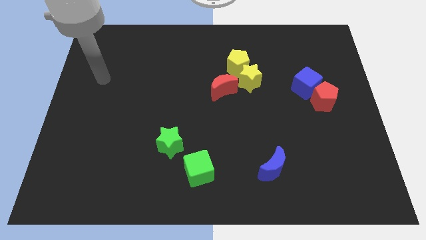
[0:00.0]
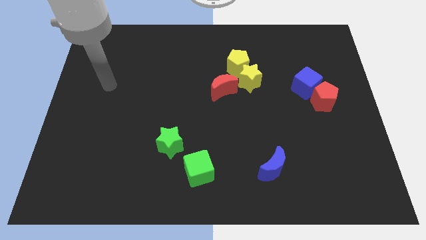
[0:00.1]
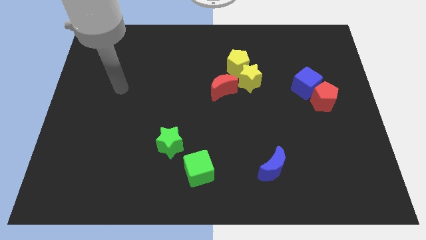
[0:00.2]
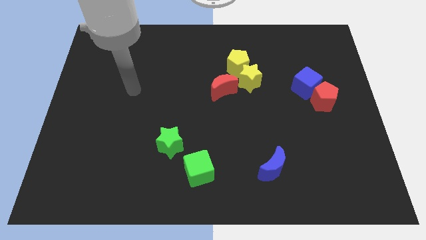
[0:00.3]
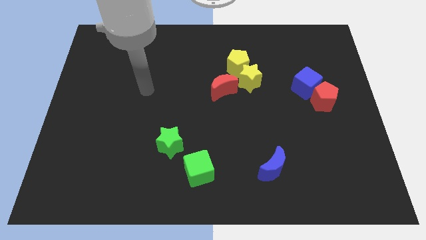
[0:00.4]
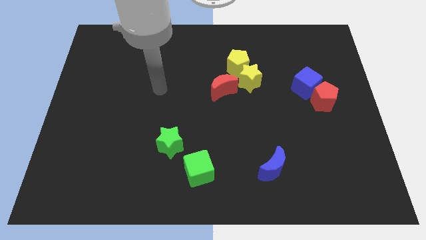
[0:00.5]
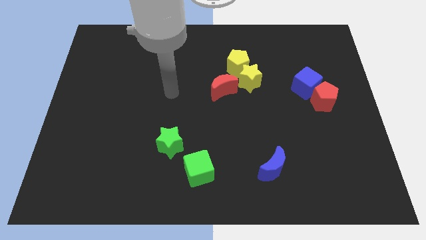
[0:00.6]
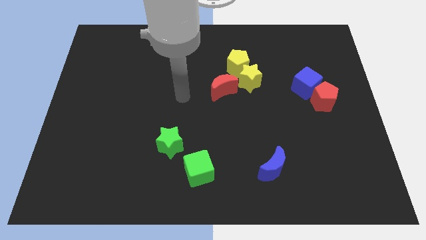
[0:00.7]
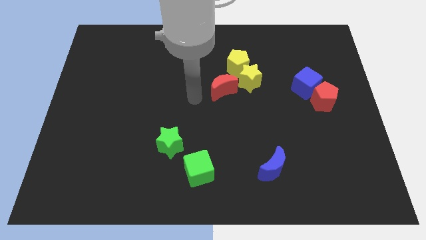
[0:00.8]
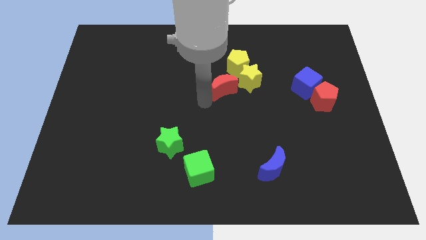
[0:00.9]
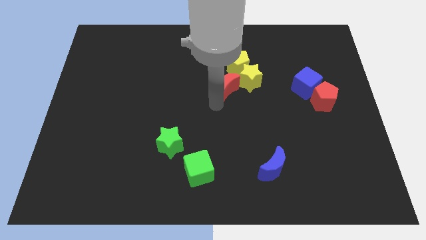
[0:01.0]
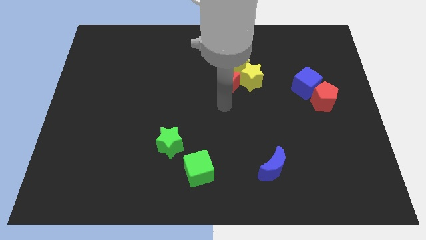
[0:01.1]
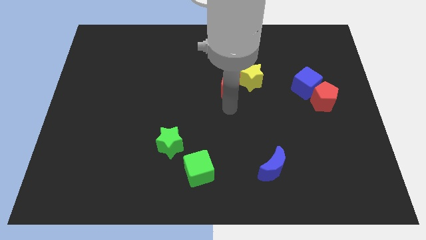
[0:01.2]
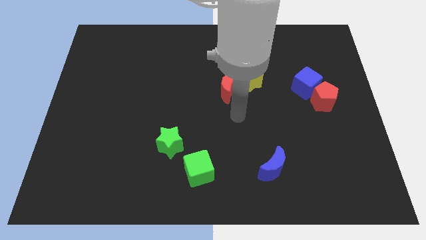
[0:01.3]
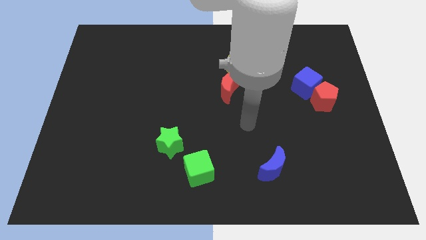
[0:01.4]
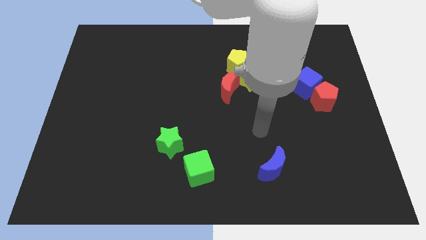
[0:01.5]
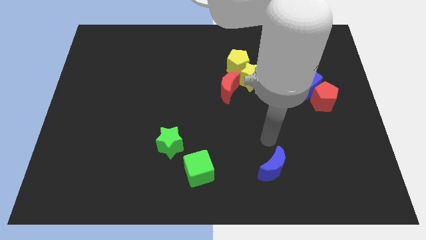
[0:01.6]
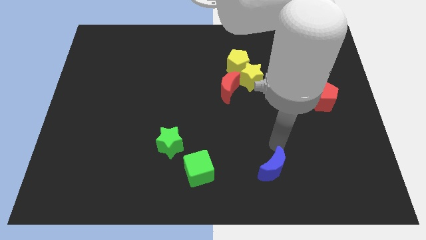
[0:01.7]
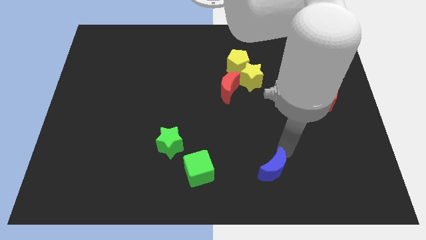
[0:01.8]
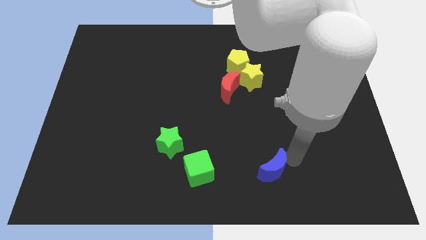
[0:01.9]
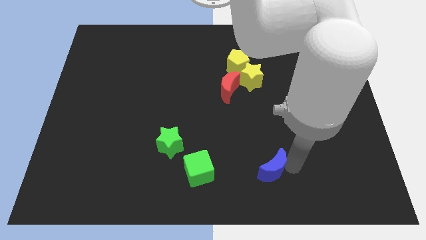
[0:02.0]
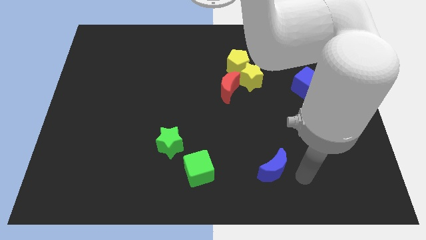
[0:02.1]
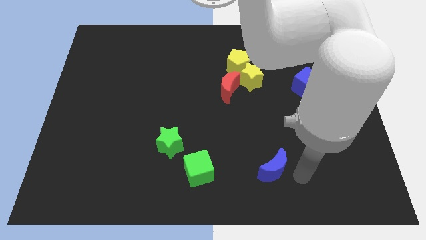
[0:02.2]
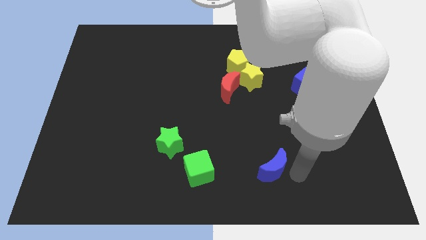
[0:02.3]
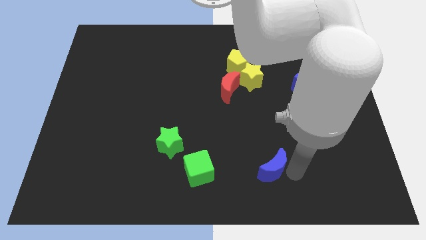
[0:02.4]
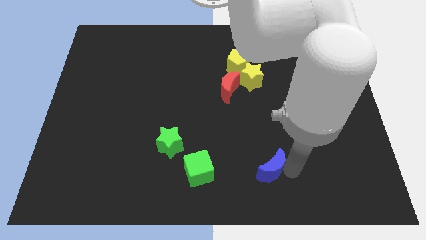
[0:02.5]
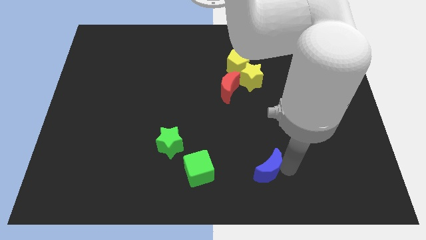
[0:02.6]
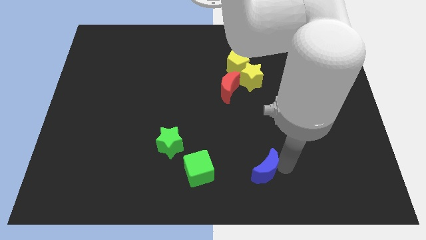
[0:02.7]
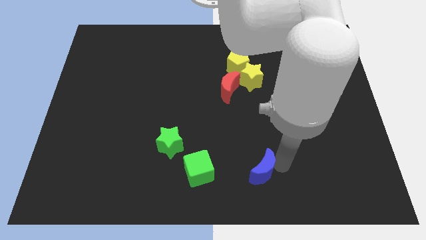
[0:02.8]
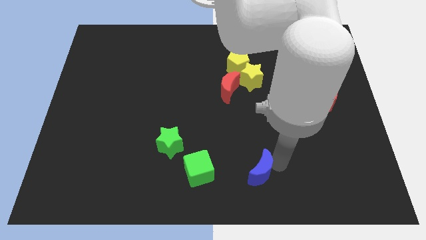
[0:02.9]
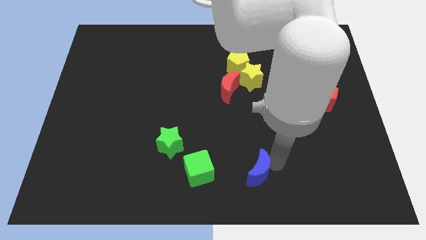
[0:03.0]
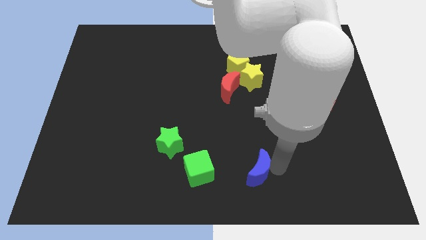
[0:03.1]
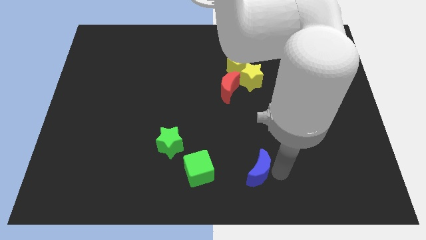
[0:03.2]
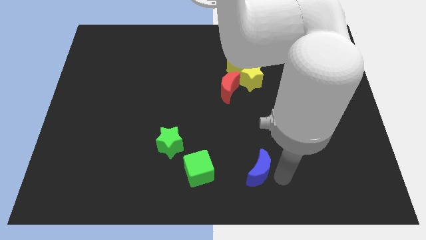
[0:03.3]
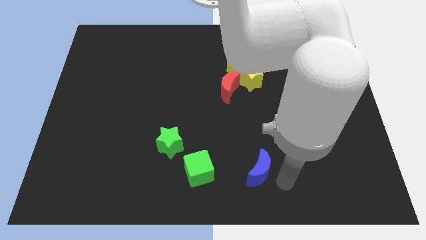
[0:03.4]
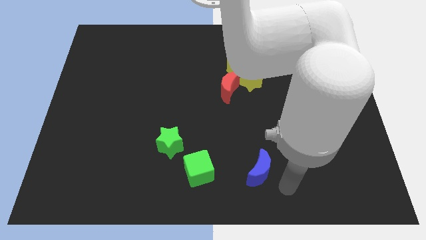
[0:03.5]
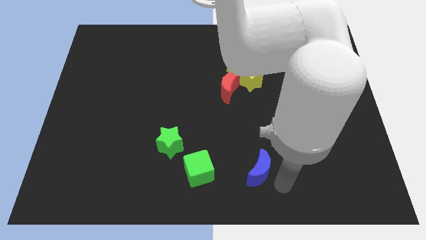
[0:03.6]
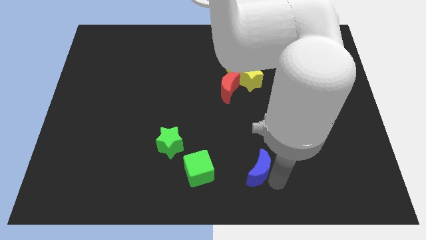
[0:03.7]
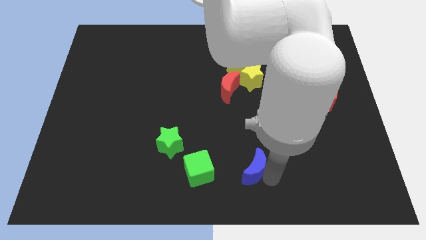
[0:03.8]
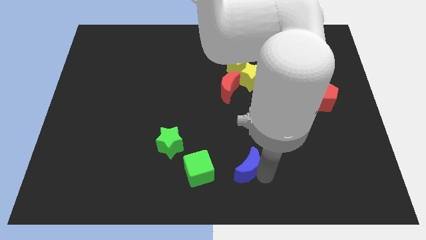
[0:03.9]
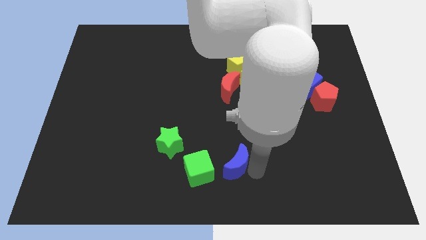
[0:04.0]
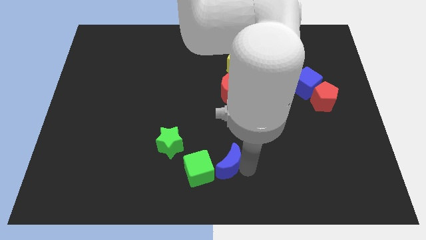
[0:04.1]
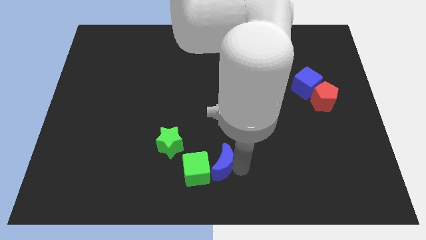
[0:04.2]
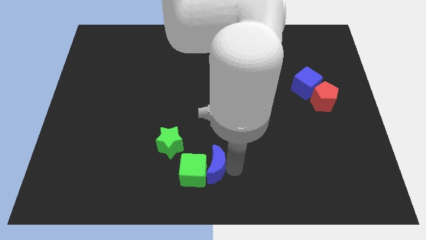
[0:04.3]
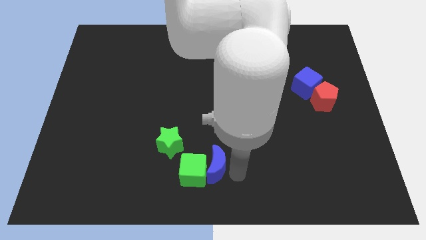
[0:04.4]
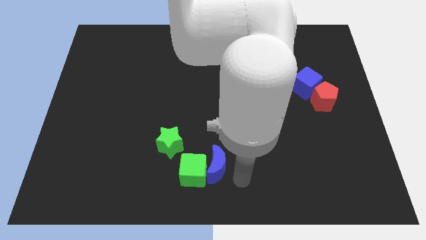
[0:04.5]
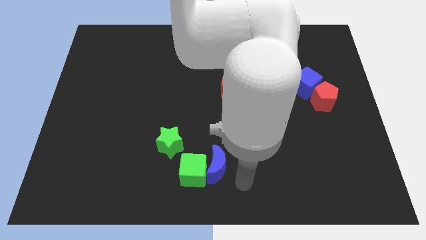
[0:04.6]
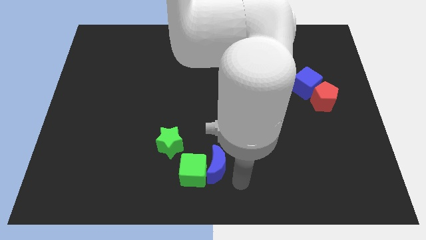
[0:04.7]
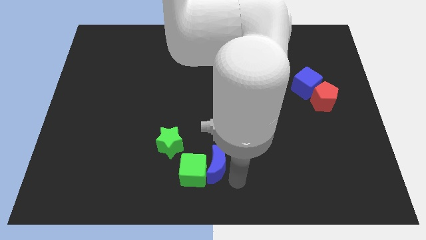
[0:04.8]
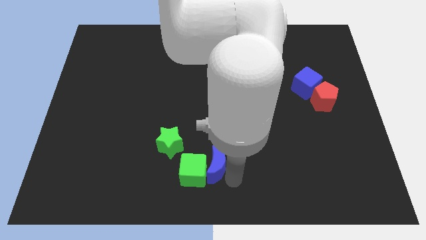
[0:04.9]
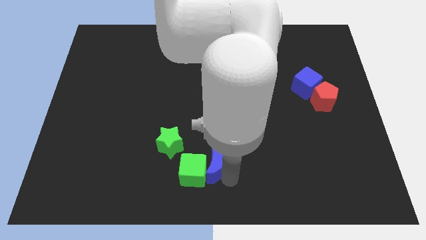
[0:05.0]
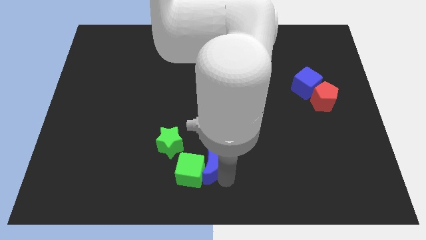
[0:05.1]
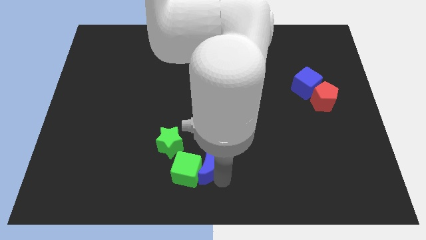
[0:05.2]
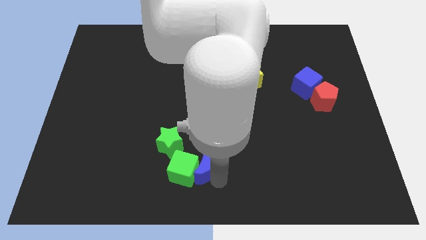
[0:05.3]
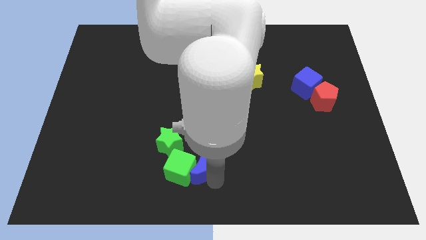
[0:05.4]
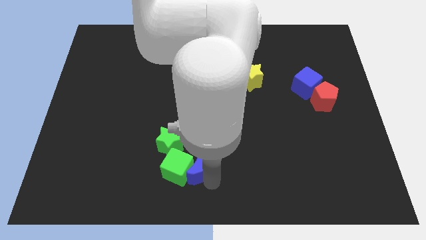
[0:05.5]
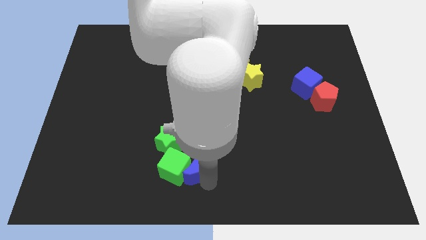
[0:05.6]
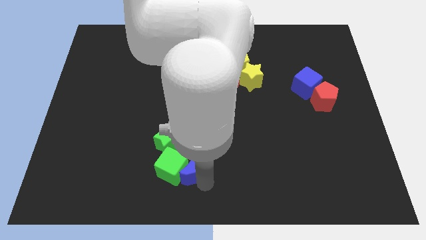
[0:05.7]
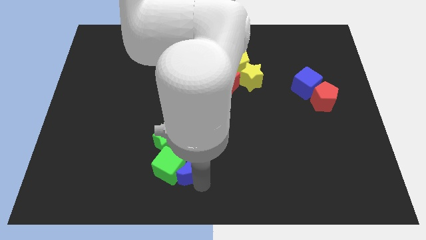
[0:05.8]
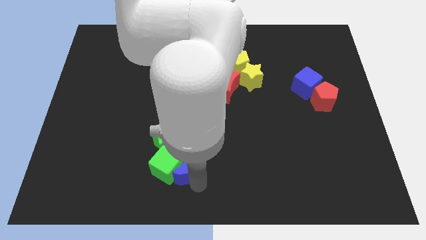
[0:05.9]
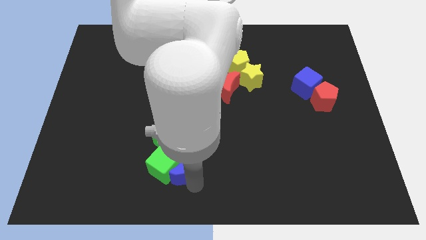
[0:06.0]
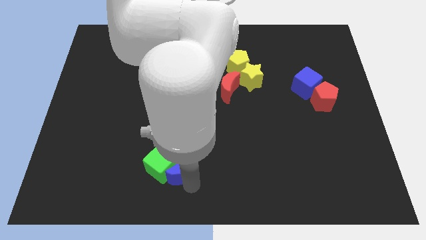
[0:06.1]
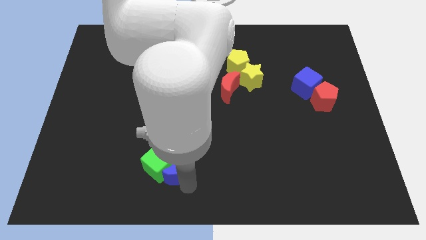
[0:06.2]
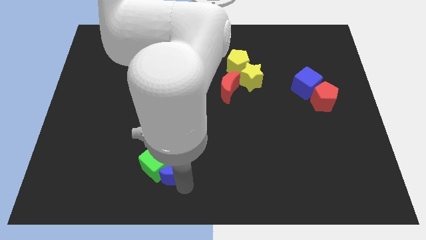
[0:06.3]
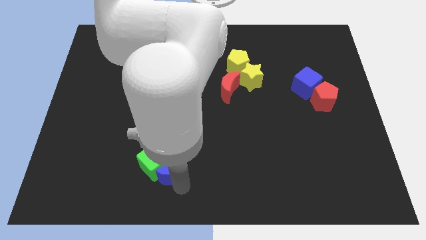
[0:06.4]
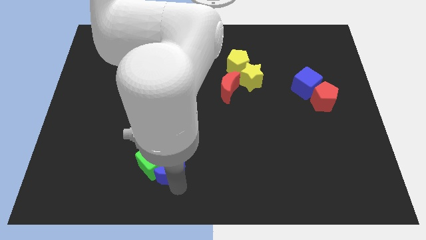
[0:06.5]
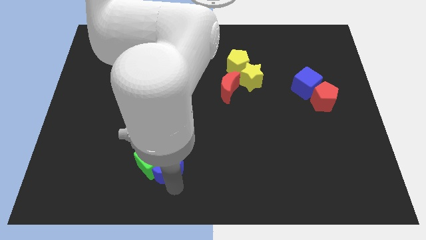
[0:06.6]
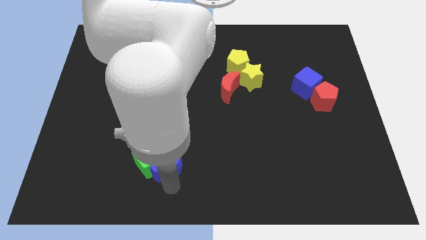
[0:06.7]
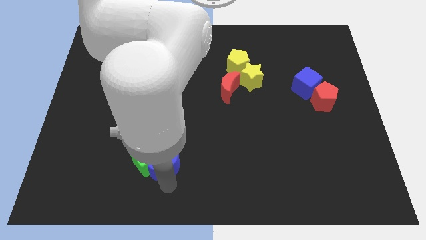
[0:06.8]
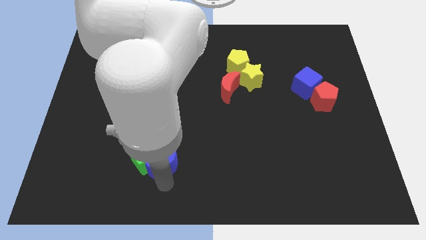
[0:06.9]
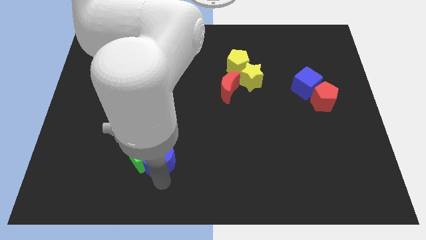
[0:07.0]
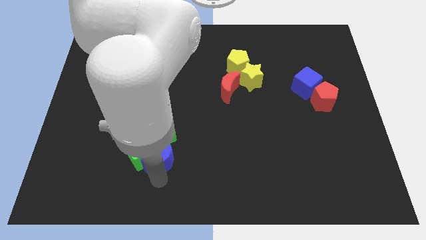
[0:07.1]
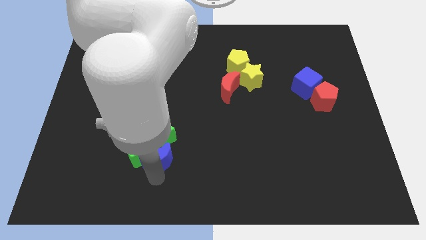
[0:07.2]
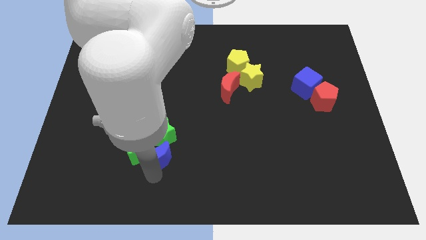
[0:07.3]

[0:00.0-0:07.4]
push the blue moon towards the green star

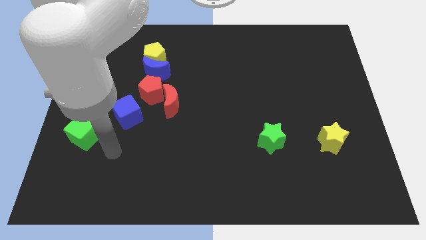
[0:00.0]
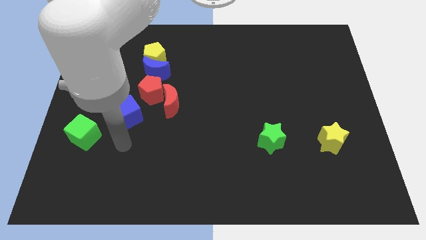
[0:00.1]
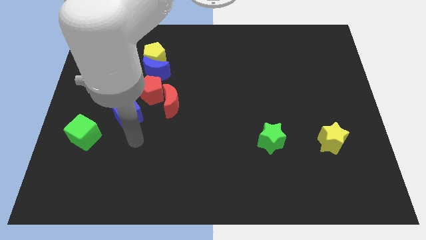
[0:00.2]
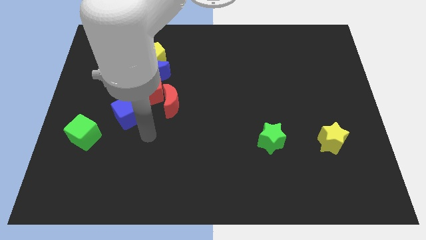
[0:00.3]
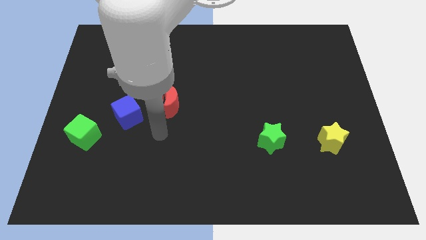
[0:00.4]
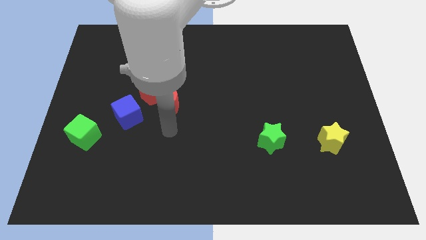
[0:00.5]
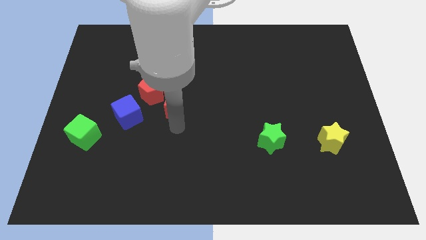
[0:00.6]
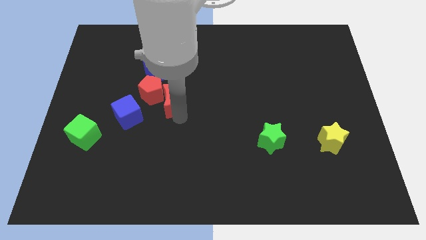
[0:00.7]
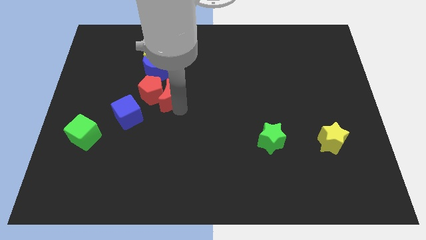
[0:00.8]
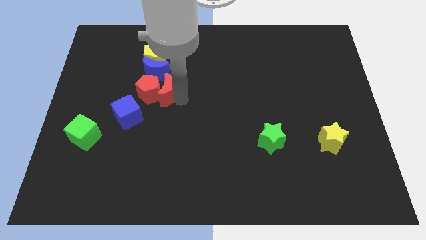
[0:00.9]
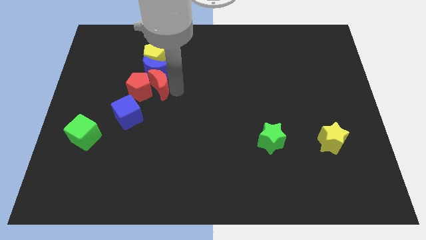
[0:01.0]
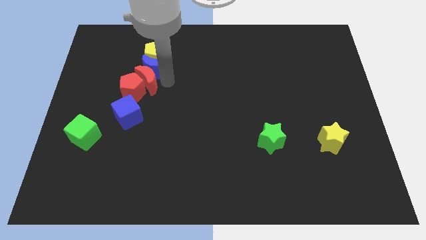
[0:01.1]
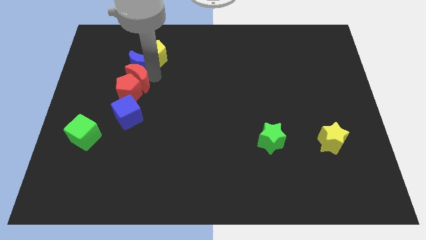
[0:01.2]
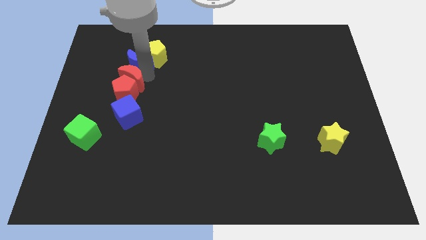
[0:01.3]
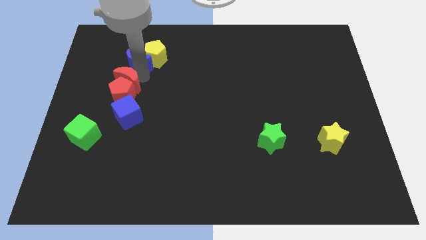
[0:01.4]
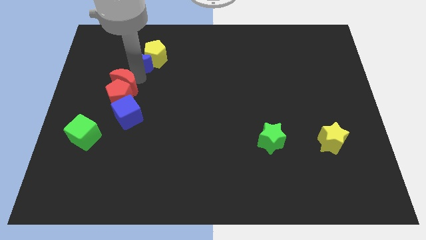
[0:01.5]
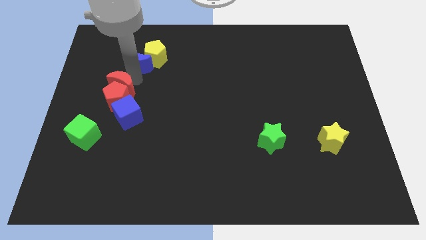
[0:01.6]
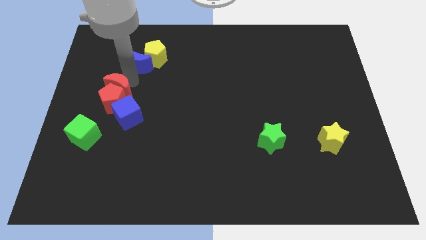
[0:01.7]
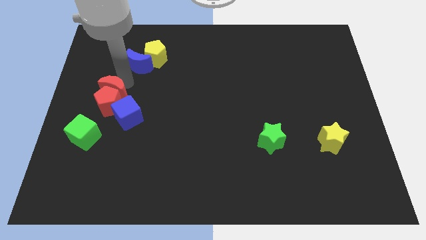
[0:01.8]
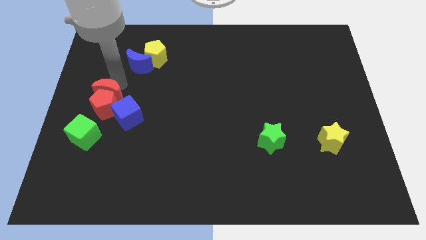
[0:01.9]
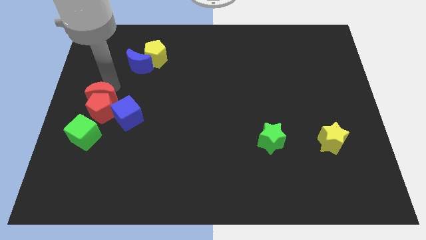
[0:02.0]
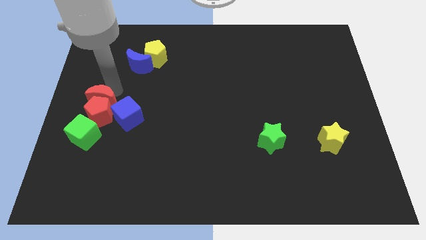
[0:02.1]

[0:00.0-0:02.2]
push the red pentagon to the green cube
